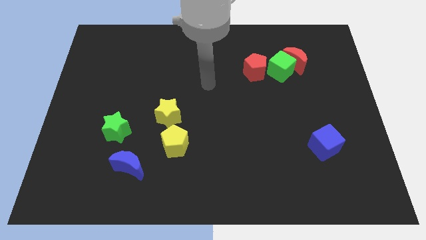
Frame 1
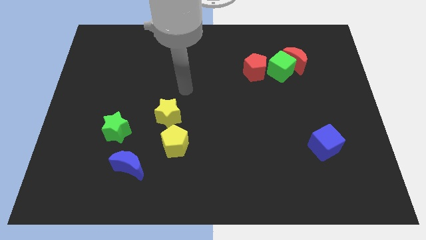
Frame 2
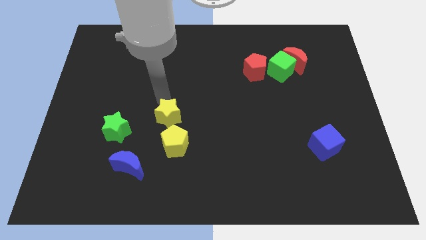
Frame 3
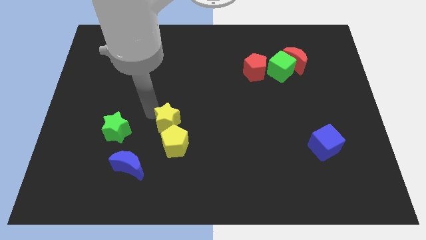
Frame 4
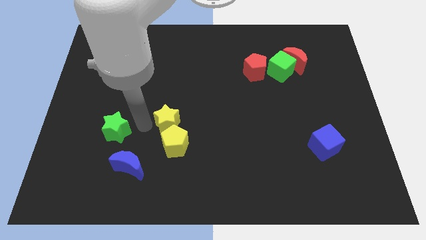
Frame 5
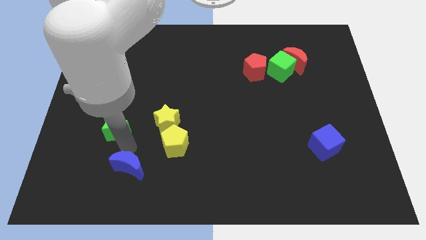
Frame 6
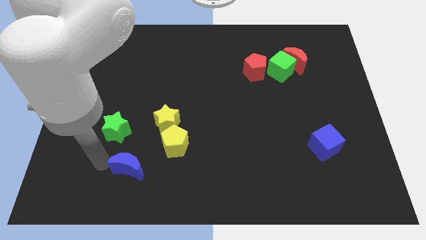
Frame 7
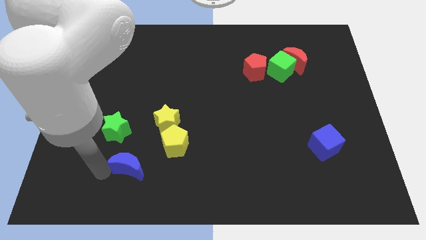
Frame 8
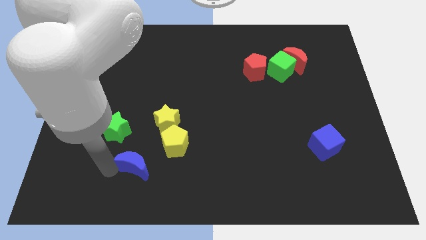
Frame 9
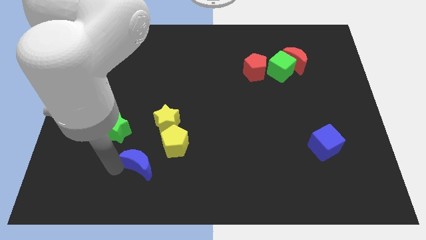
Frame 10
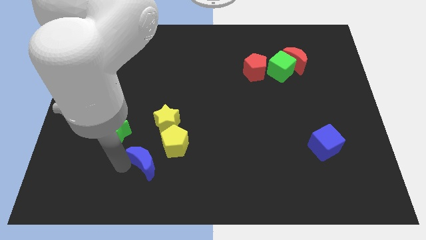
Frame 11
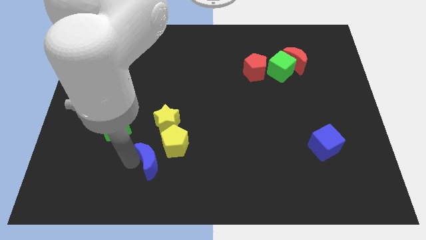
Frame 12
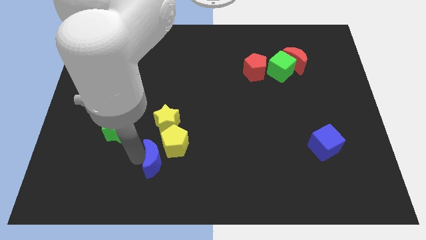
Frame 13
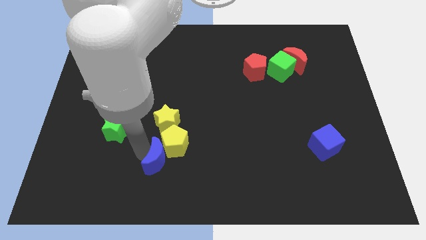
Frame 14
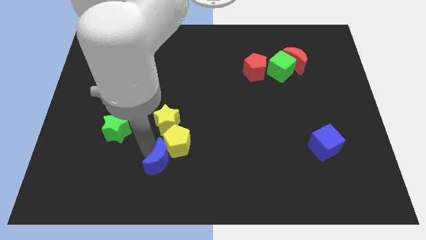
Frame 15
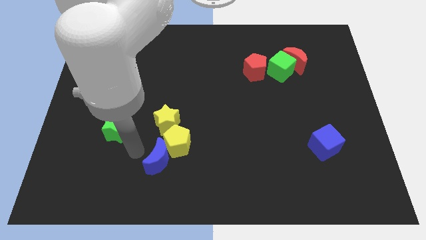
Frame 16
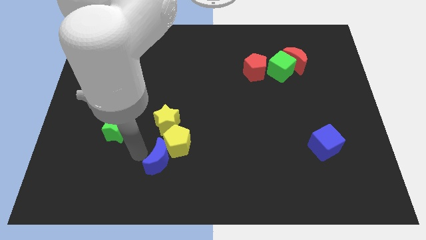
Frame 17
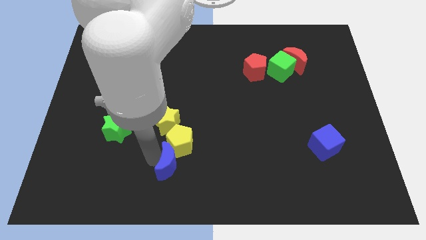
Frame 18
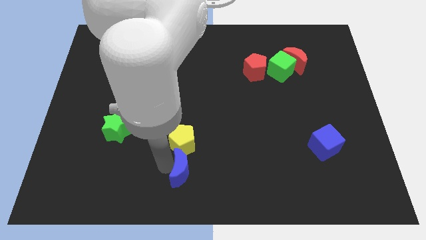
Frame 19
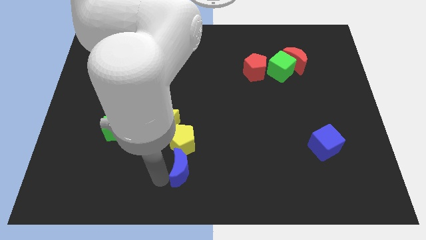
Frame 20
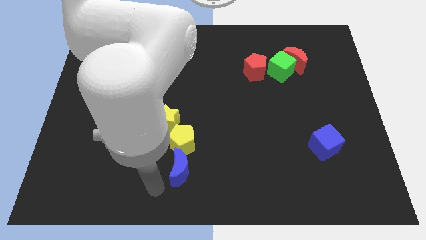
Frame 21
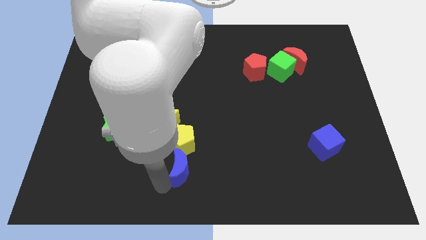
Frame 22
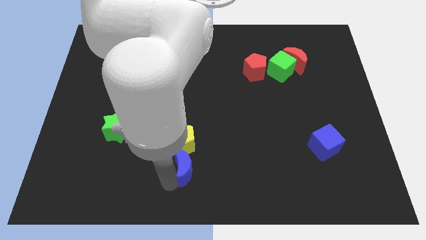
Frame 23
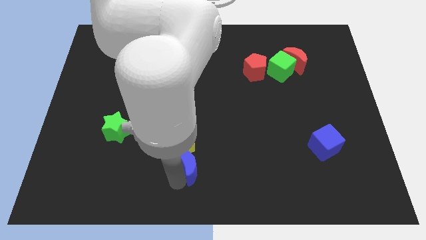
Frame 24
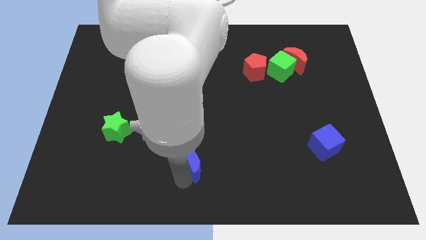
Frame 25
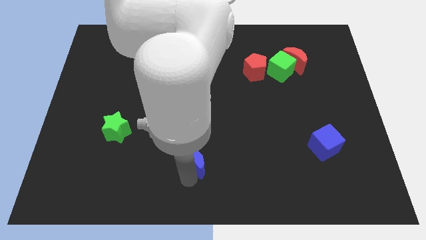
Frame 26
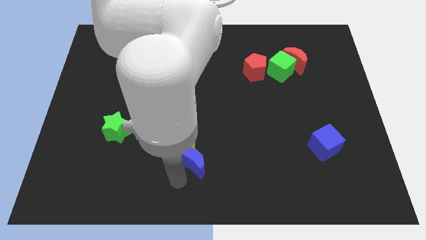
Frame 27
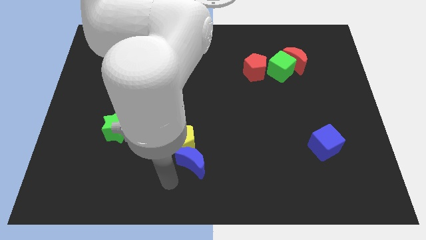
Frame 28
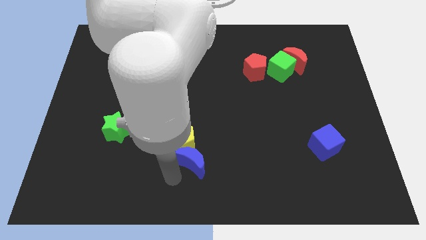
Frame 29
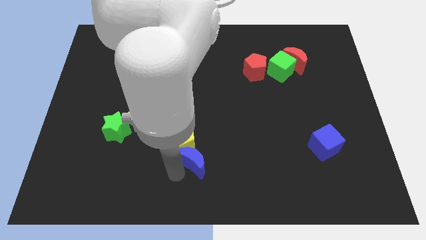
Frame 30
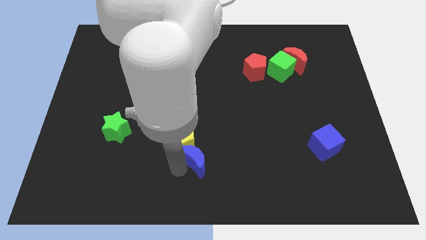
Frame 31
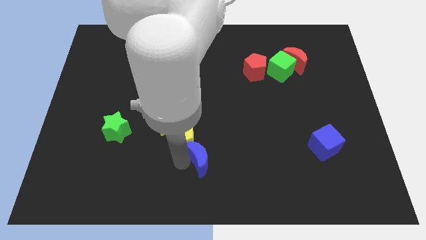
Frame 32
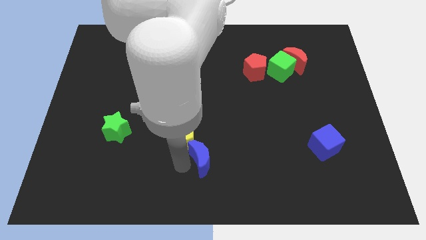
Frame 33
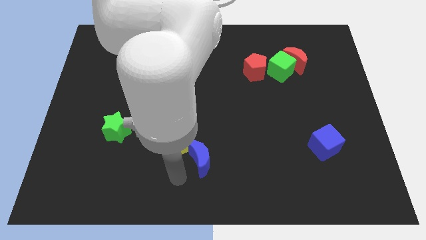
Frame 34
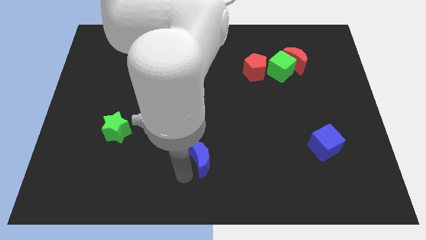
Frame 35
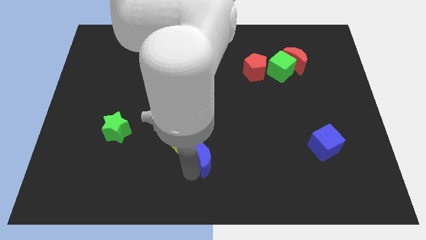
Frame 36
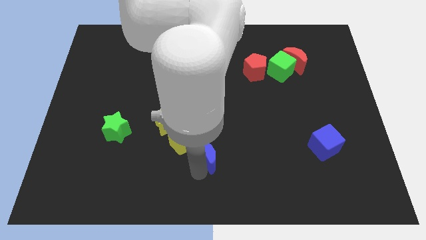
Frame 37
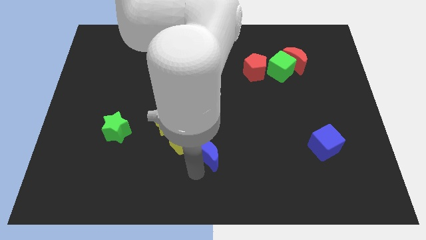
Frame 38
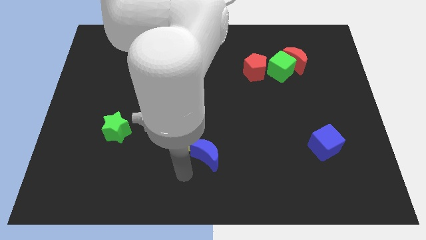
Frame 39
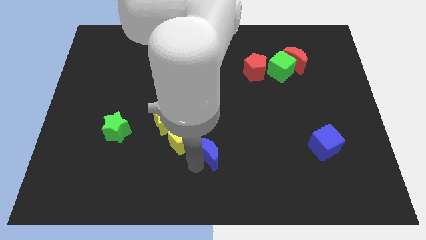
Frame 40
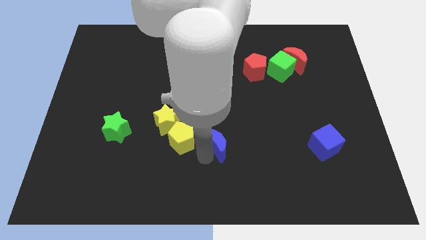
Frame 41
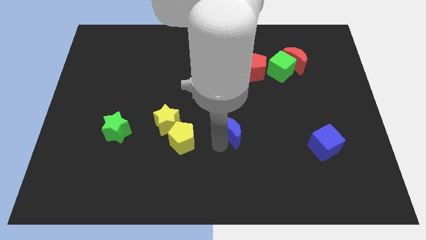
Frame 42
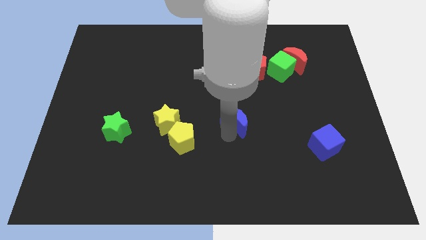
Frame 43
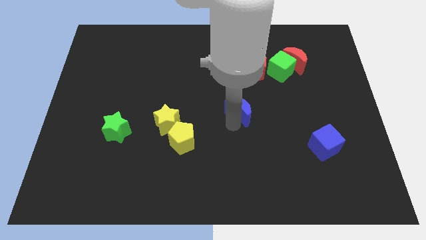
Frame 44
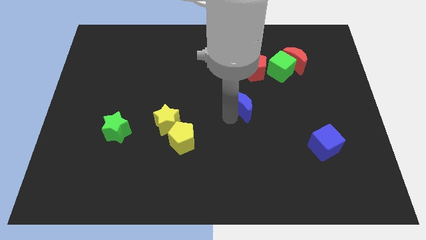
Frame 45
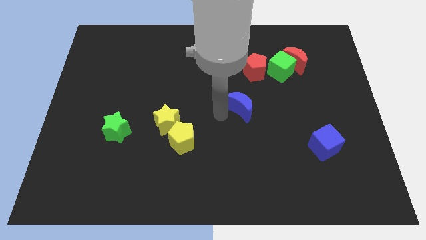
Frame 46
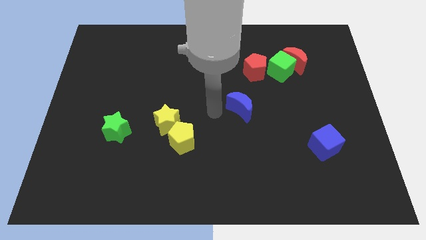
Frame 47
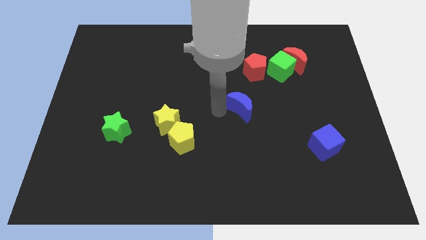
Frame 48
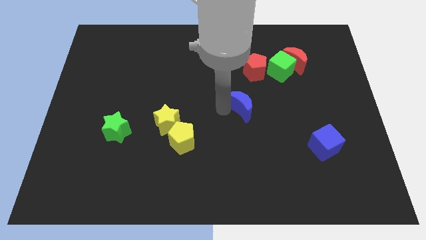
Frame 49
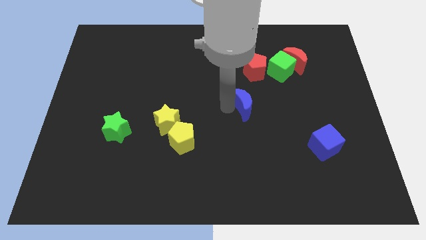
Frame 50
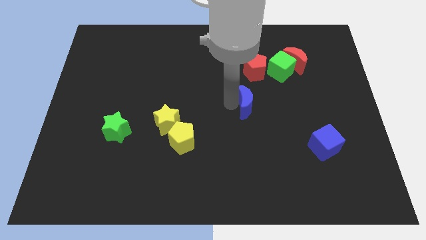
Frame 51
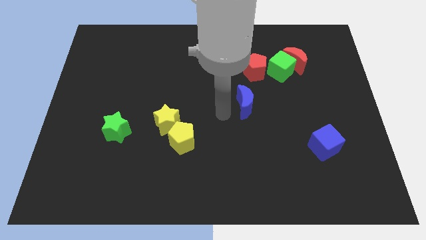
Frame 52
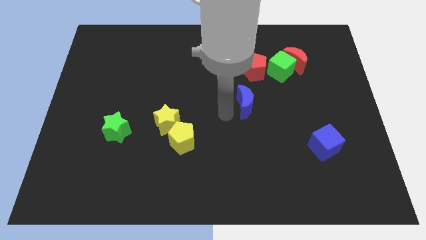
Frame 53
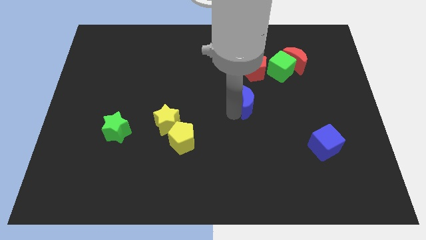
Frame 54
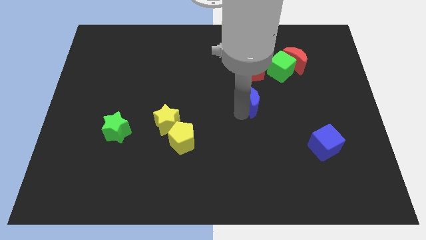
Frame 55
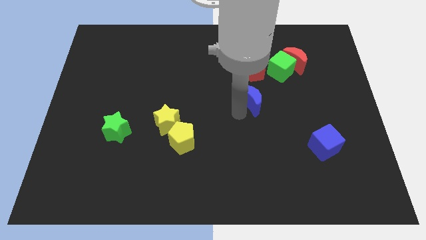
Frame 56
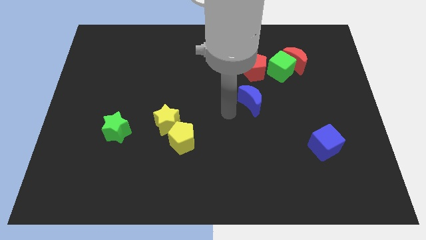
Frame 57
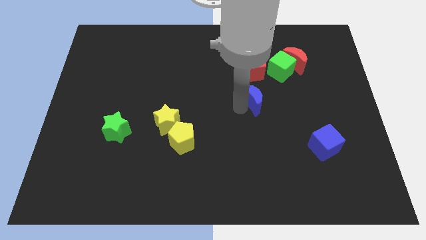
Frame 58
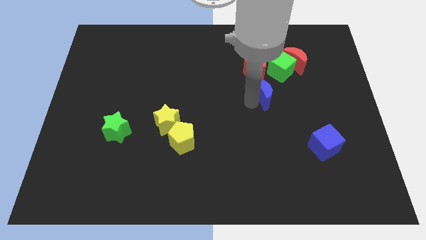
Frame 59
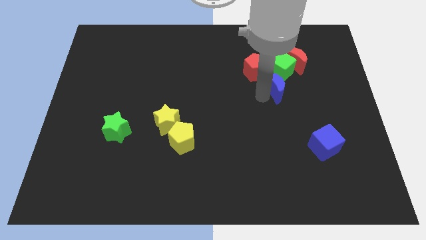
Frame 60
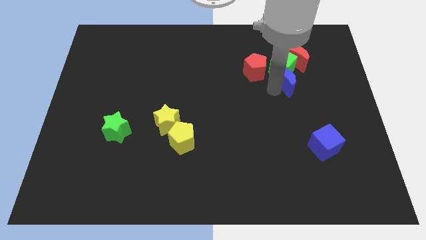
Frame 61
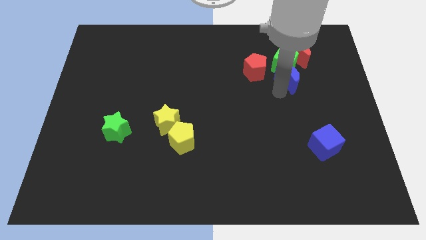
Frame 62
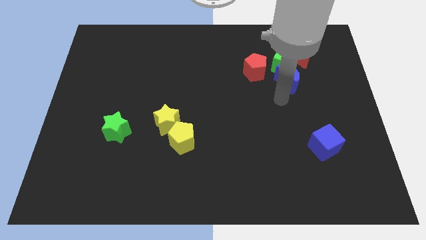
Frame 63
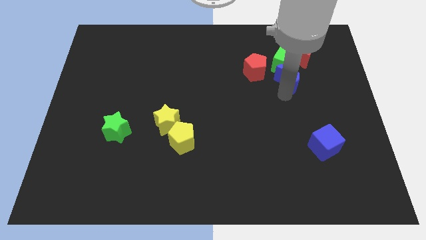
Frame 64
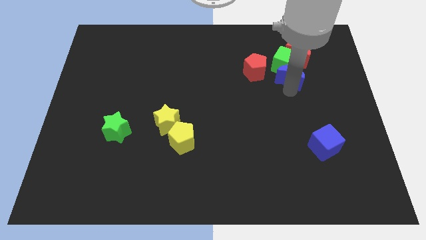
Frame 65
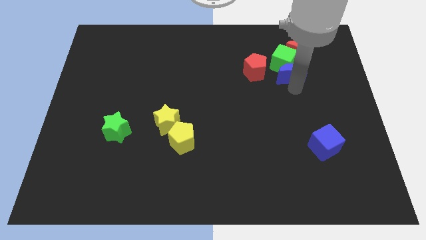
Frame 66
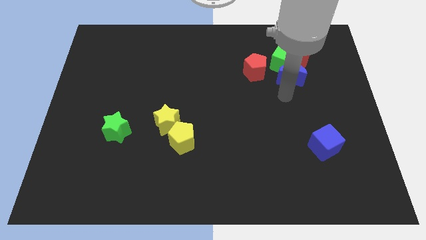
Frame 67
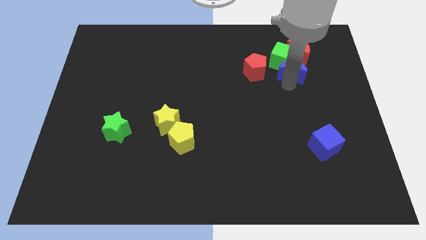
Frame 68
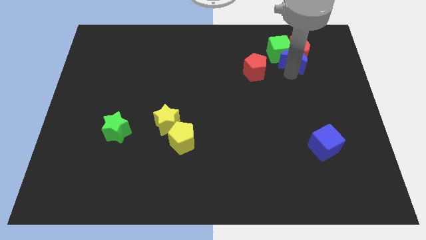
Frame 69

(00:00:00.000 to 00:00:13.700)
slide the blue moon towards the red moon

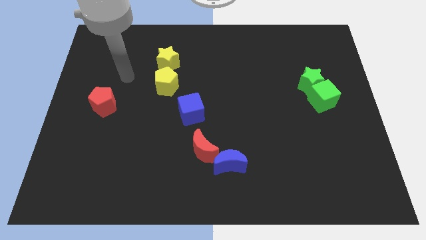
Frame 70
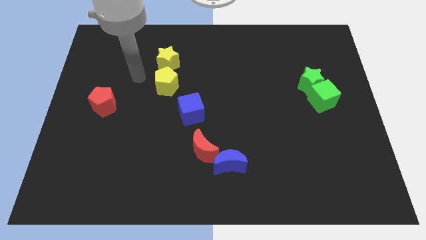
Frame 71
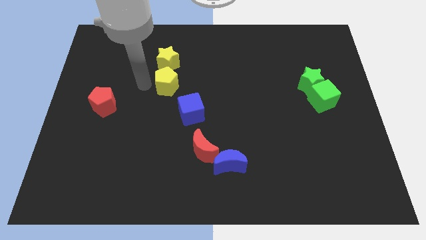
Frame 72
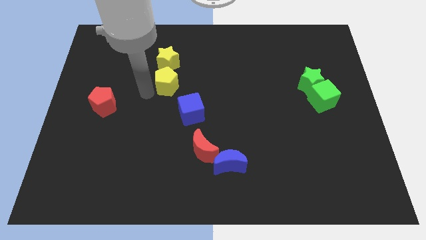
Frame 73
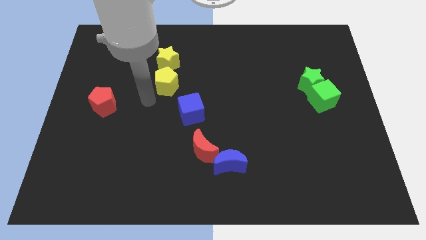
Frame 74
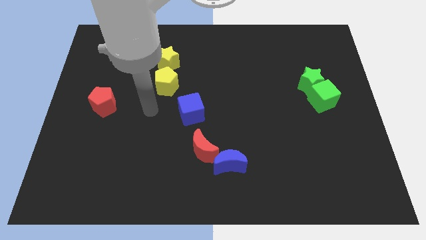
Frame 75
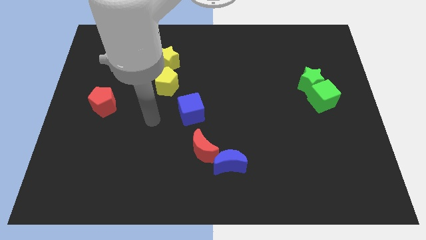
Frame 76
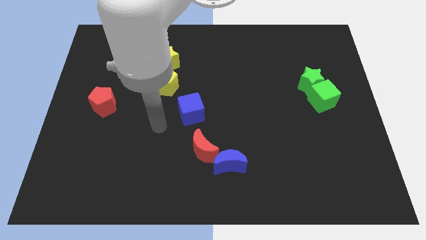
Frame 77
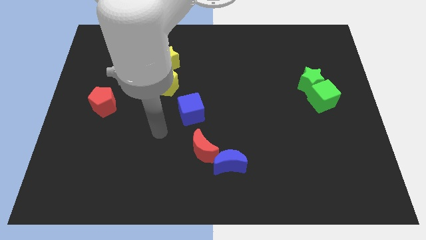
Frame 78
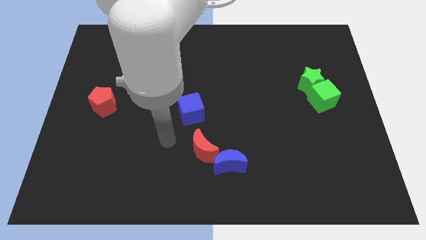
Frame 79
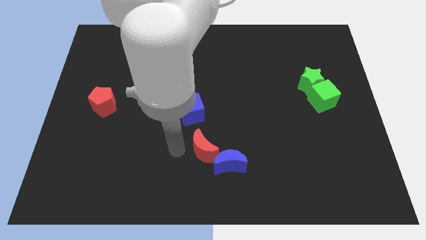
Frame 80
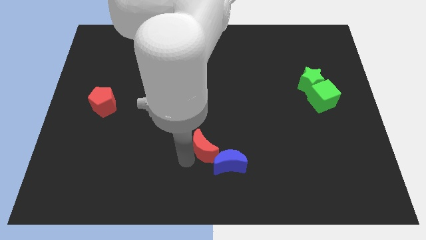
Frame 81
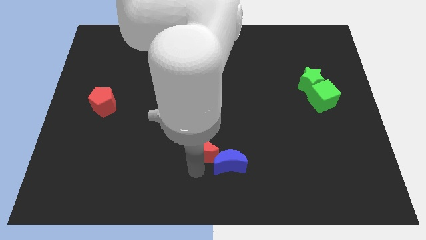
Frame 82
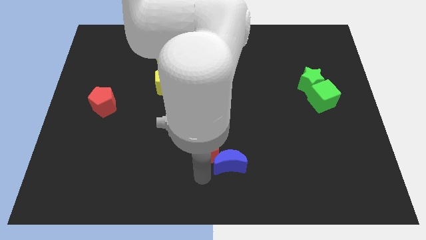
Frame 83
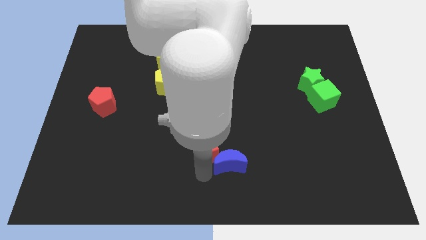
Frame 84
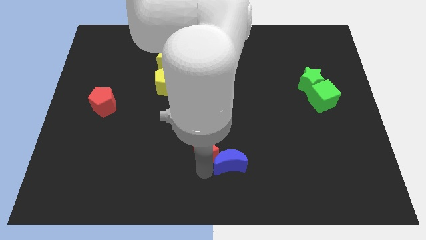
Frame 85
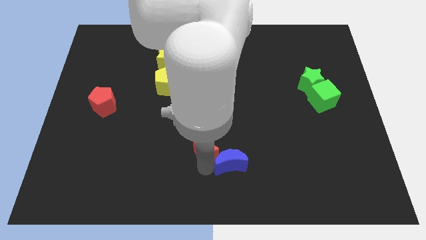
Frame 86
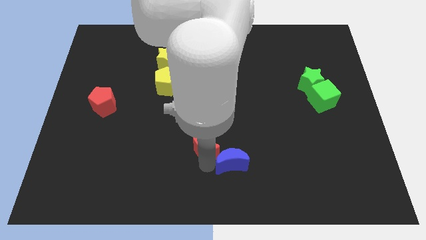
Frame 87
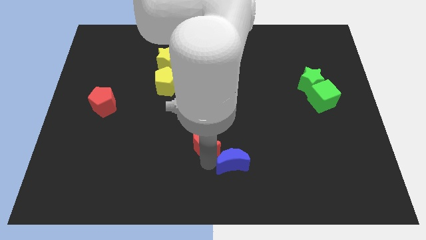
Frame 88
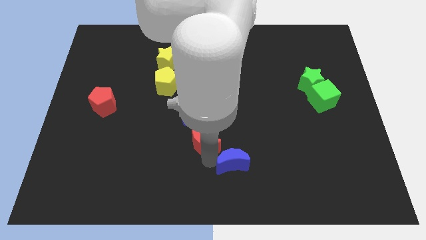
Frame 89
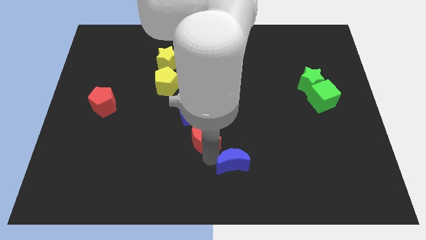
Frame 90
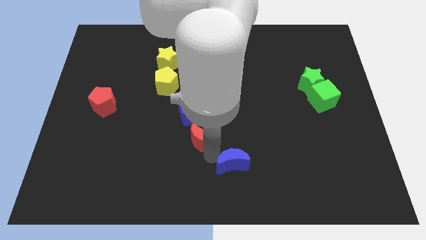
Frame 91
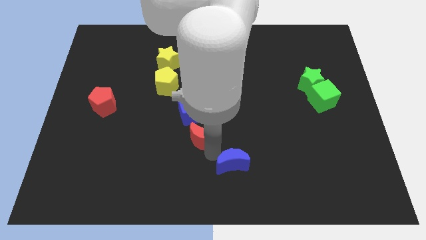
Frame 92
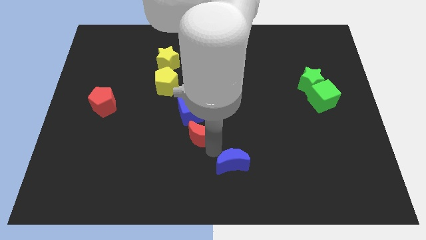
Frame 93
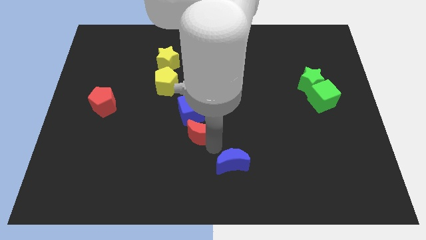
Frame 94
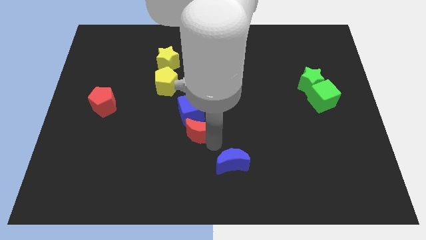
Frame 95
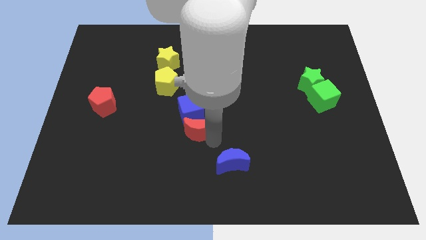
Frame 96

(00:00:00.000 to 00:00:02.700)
slide the red moon close to the blue cube
